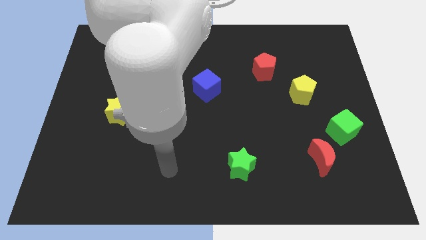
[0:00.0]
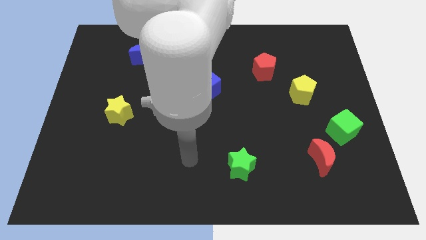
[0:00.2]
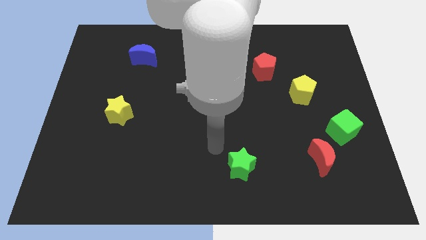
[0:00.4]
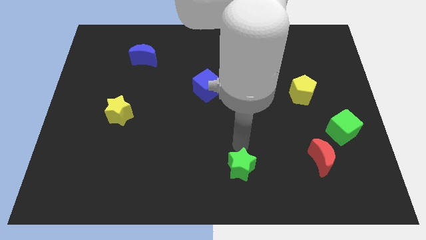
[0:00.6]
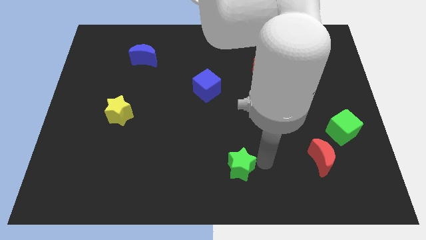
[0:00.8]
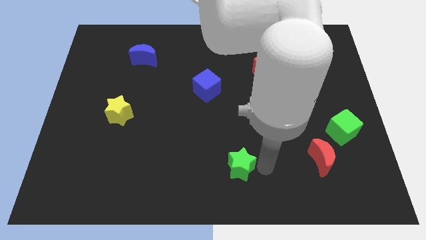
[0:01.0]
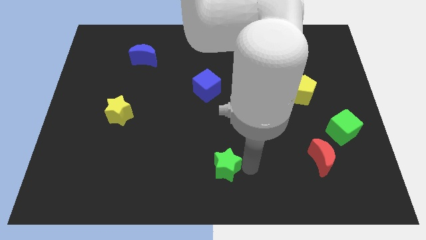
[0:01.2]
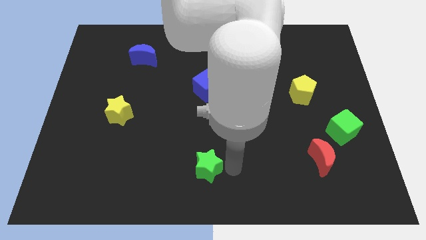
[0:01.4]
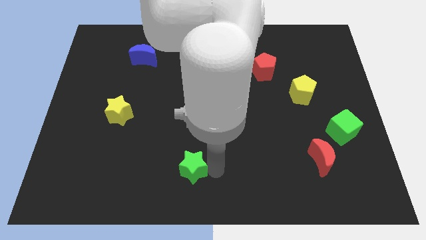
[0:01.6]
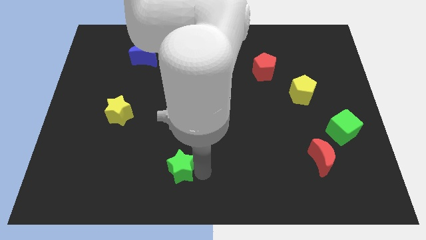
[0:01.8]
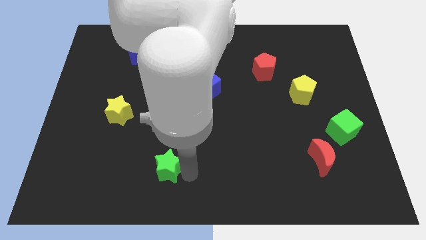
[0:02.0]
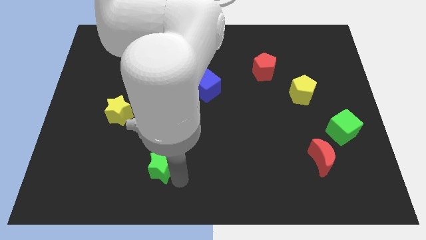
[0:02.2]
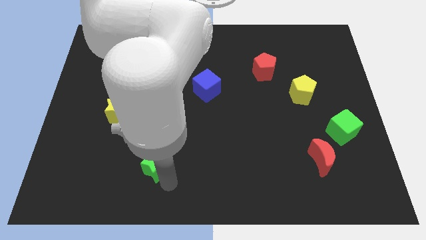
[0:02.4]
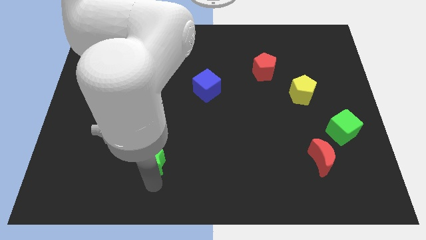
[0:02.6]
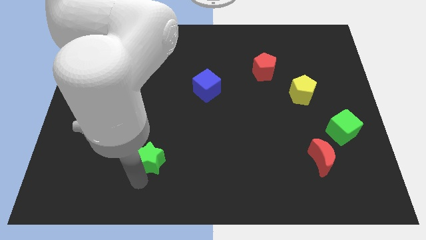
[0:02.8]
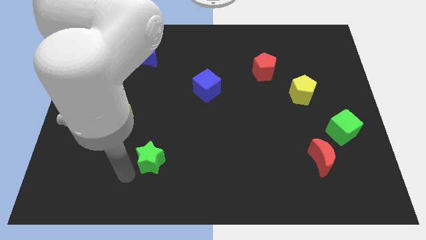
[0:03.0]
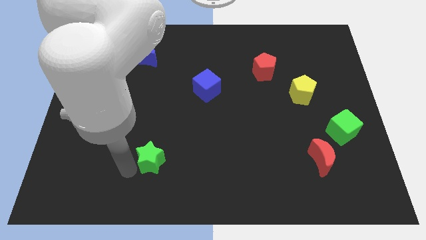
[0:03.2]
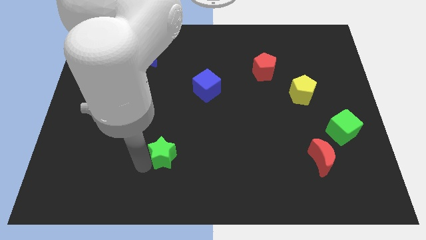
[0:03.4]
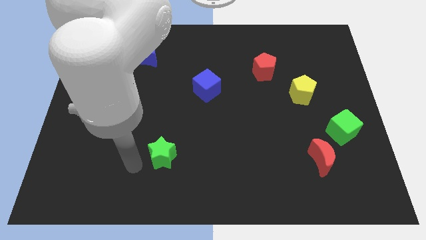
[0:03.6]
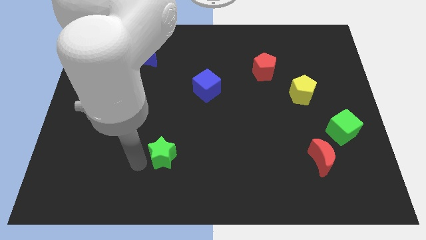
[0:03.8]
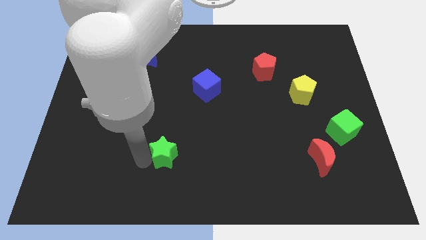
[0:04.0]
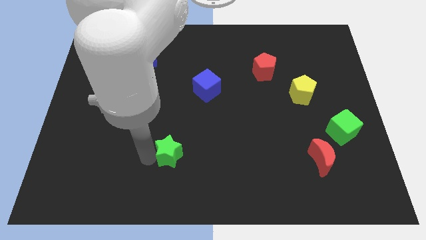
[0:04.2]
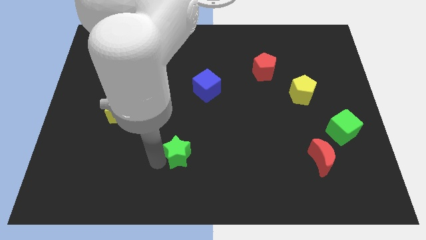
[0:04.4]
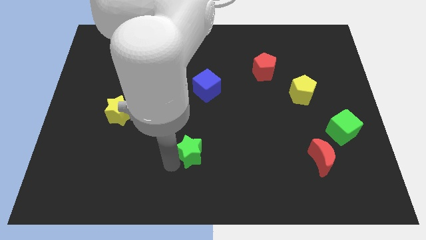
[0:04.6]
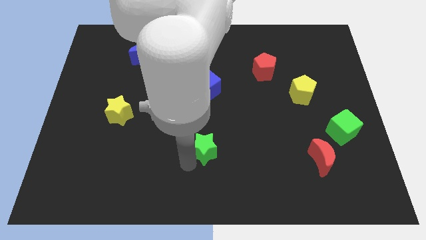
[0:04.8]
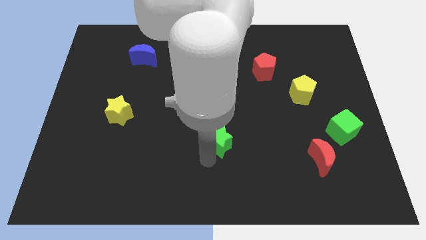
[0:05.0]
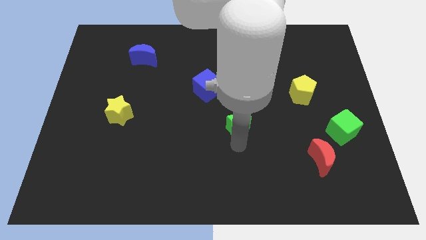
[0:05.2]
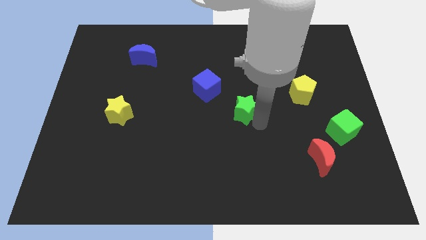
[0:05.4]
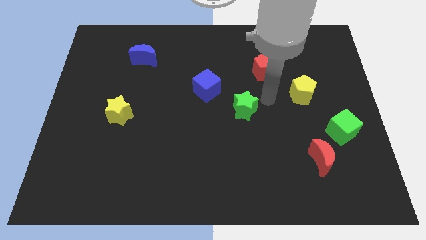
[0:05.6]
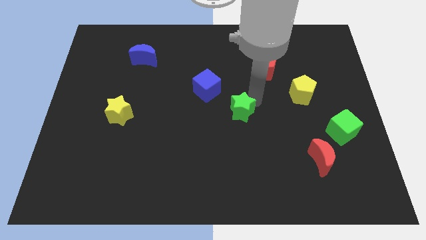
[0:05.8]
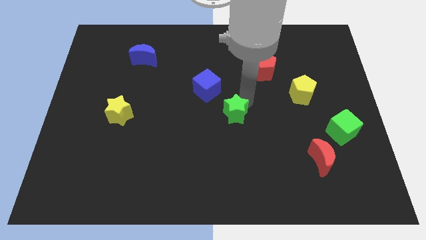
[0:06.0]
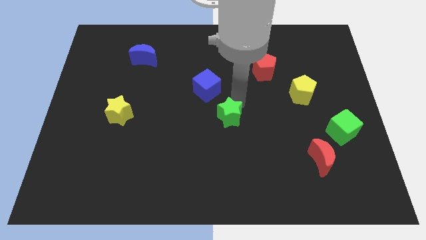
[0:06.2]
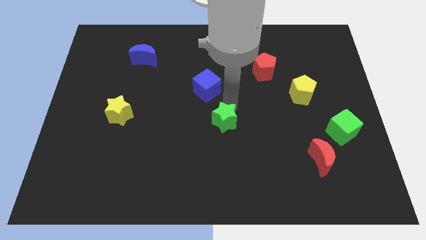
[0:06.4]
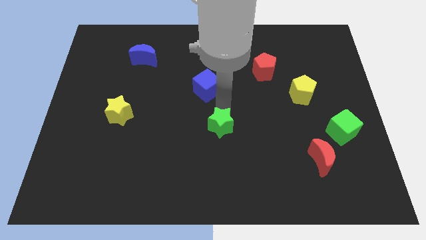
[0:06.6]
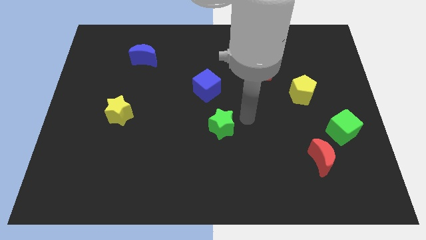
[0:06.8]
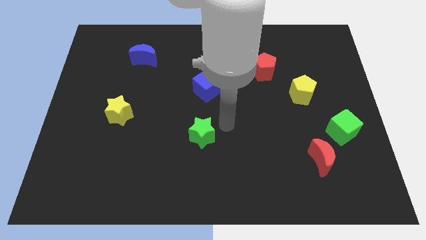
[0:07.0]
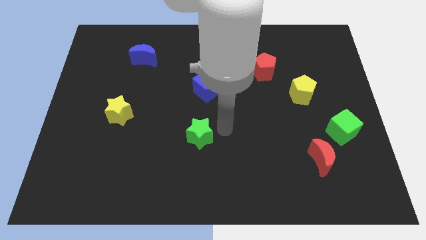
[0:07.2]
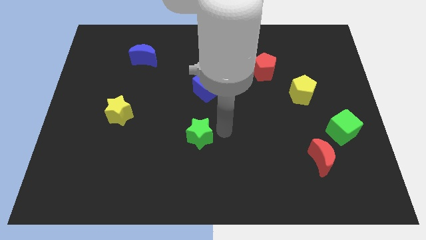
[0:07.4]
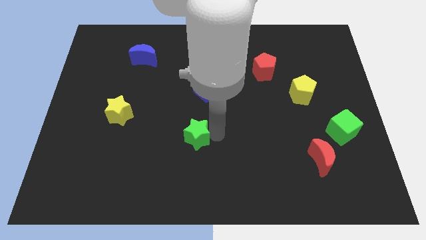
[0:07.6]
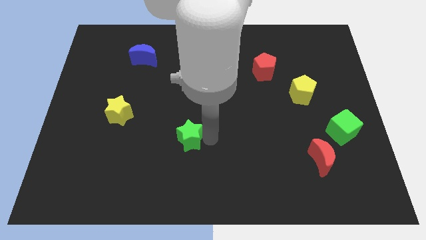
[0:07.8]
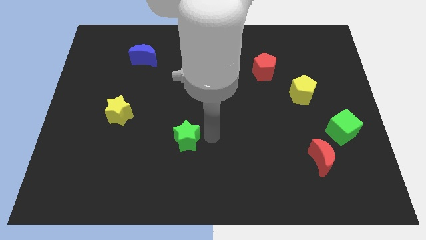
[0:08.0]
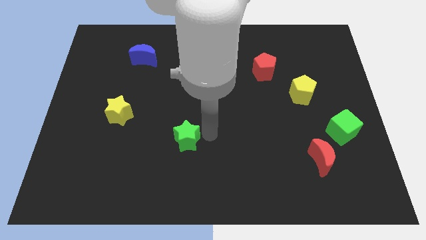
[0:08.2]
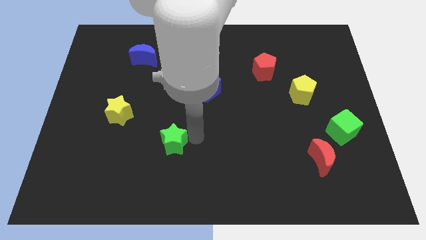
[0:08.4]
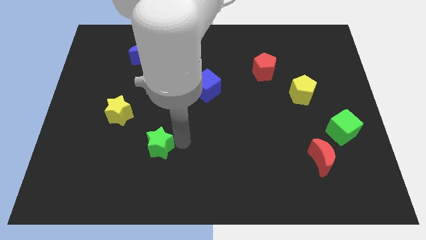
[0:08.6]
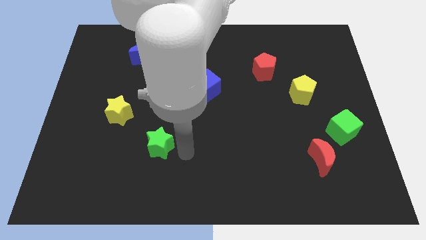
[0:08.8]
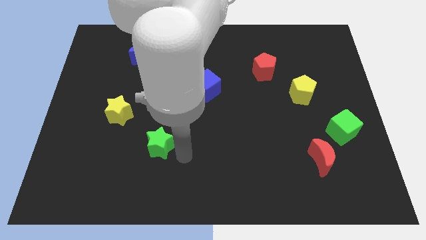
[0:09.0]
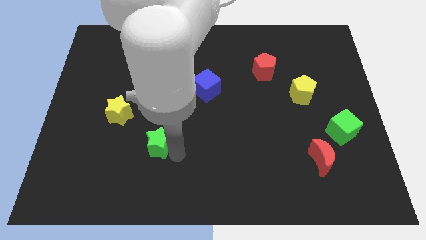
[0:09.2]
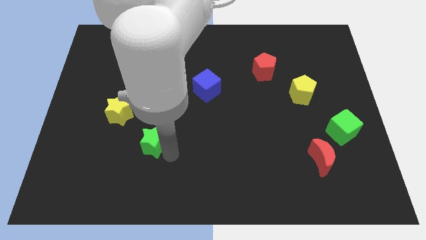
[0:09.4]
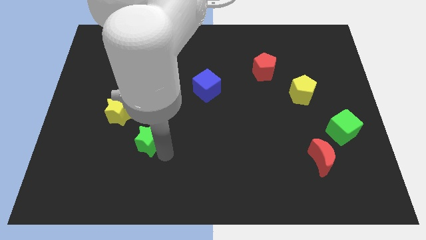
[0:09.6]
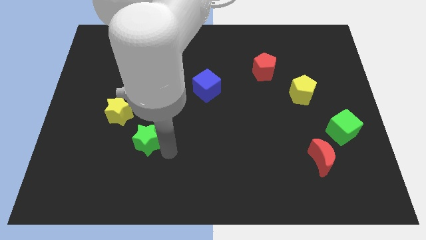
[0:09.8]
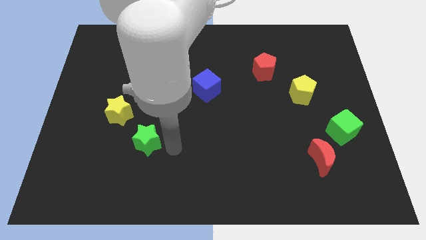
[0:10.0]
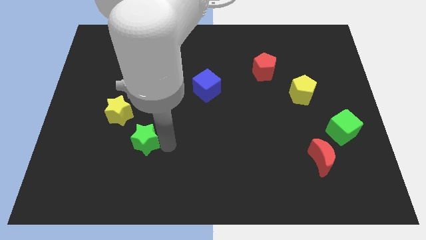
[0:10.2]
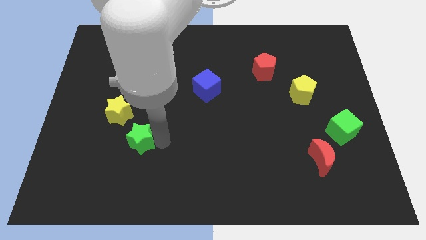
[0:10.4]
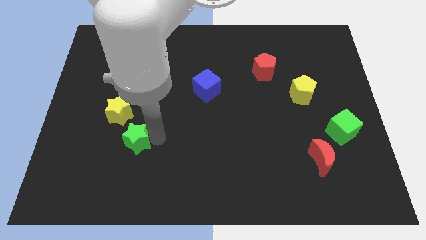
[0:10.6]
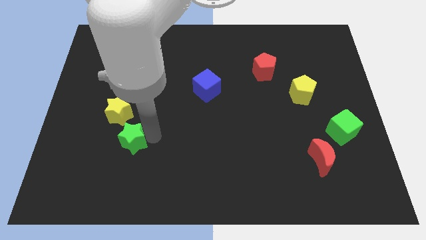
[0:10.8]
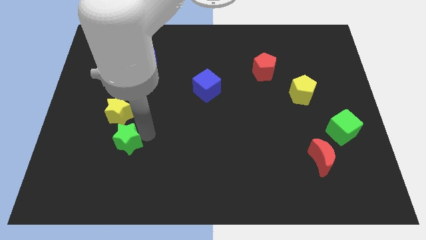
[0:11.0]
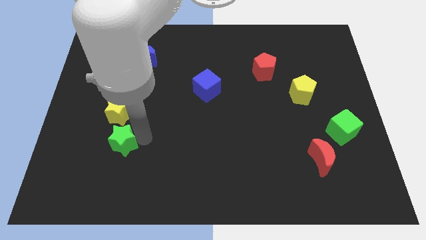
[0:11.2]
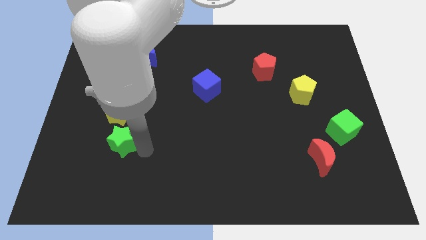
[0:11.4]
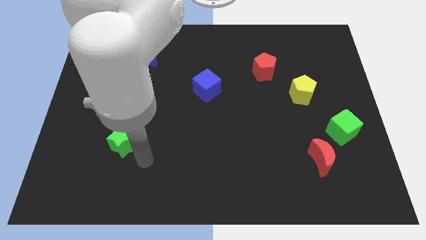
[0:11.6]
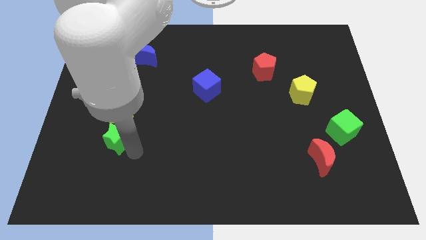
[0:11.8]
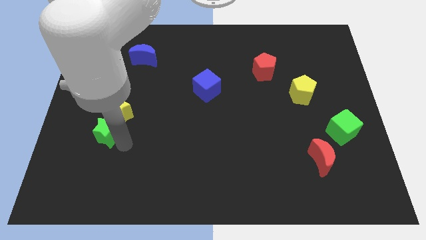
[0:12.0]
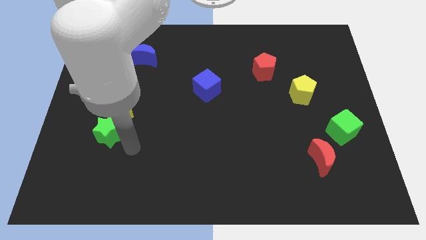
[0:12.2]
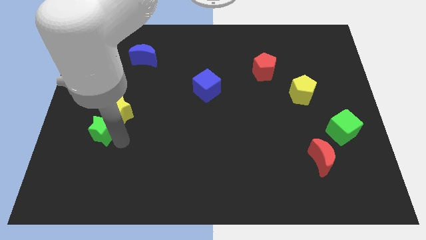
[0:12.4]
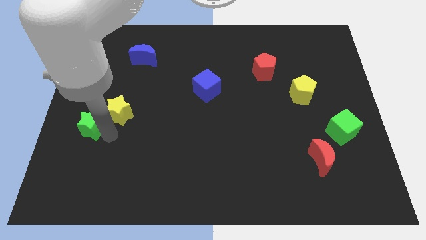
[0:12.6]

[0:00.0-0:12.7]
slide the green star to the left side
